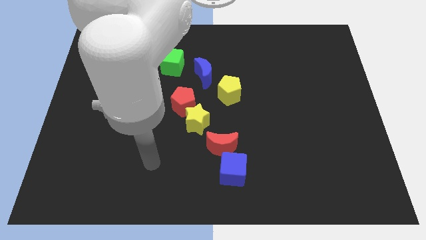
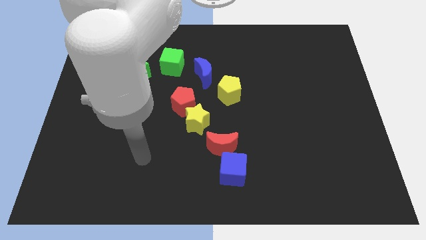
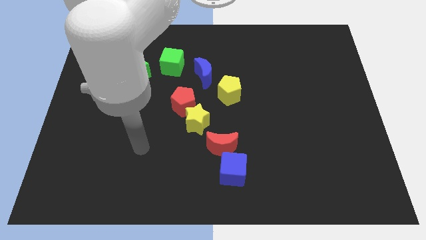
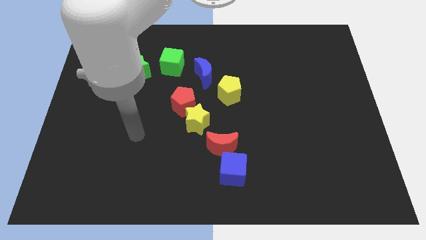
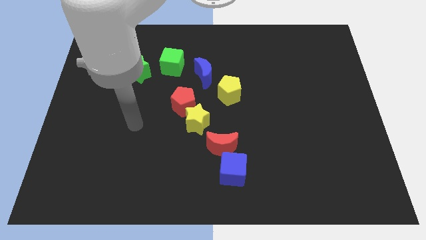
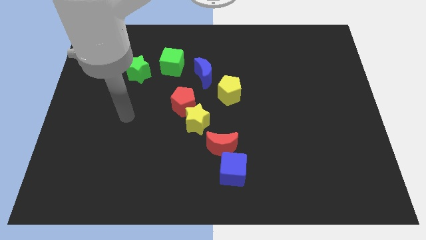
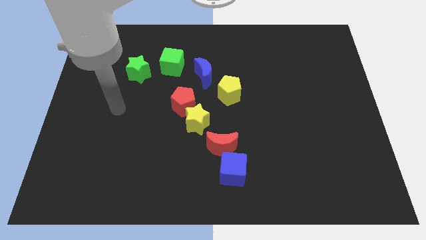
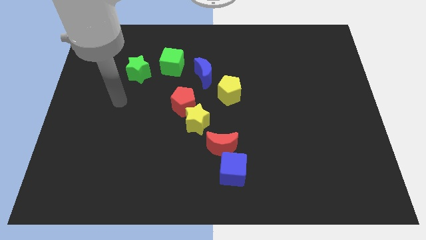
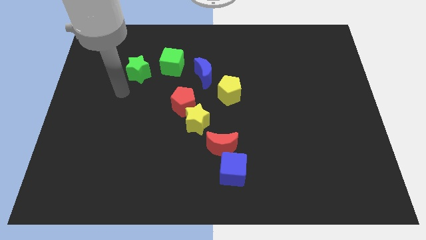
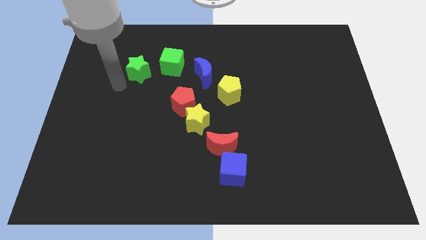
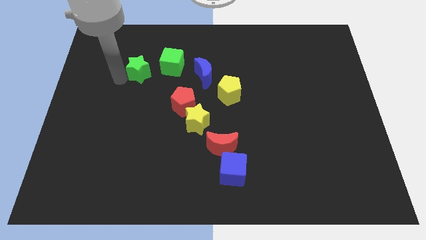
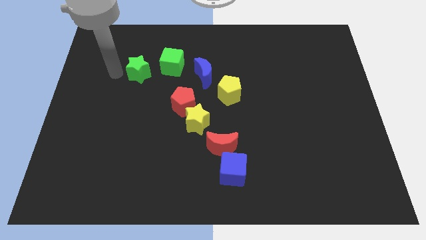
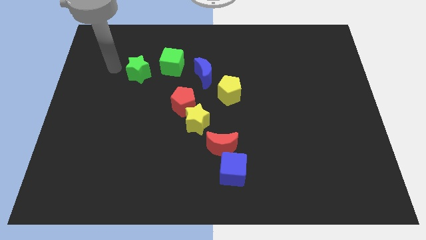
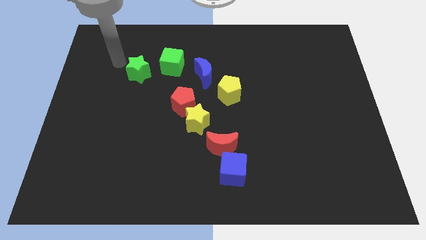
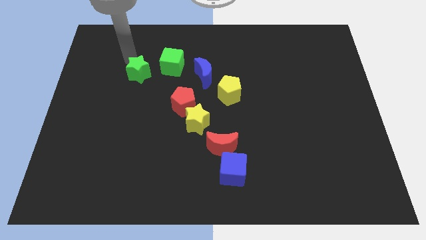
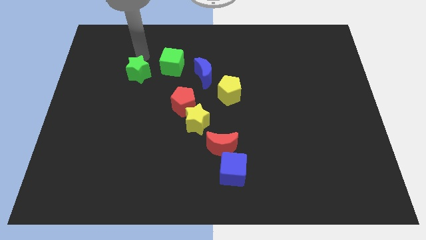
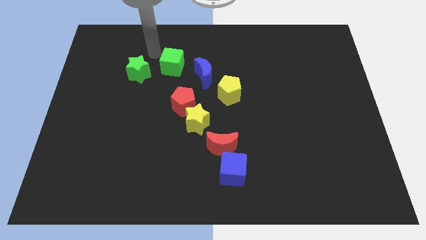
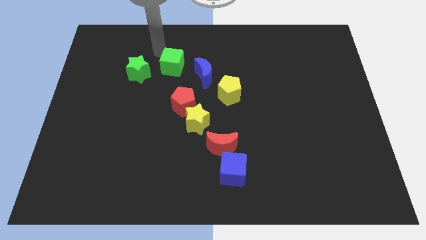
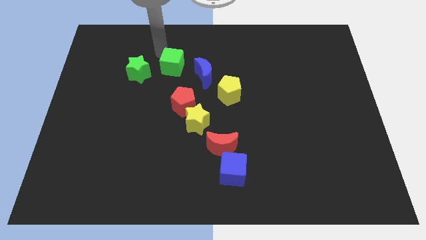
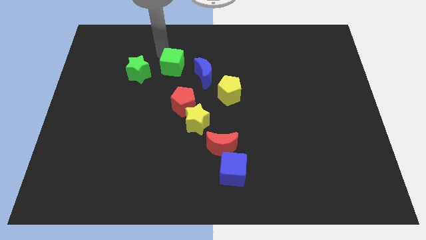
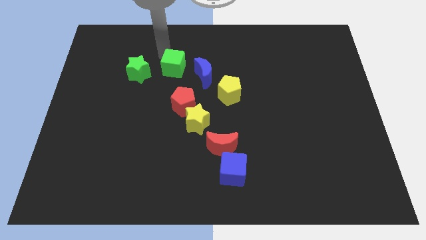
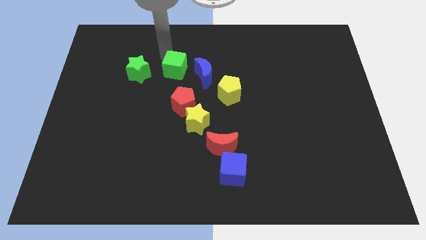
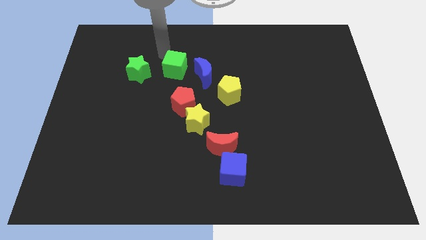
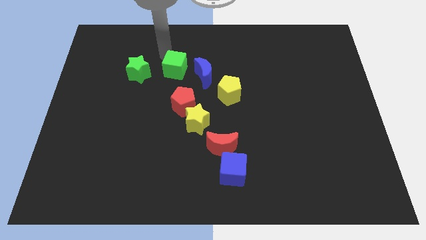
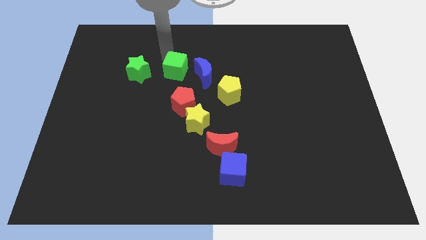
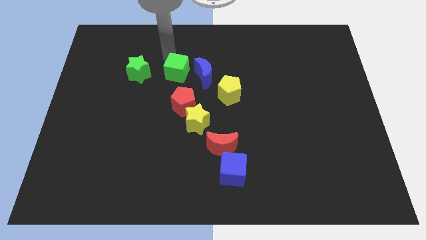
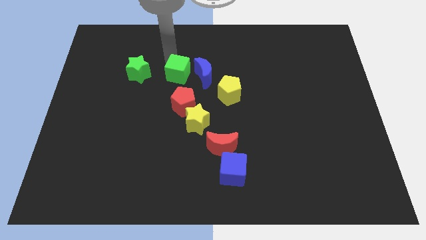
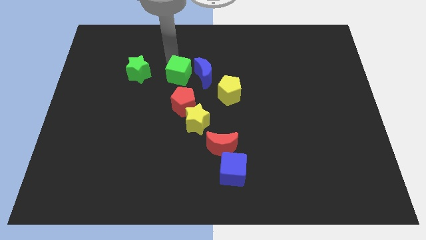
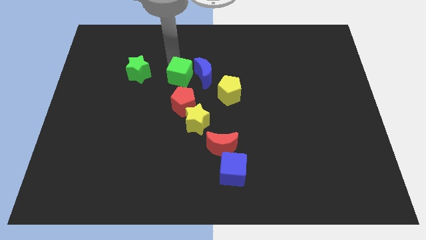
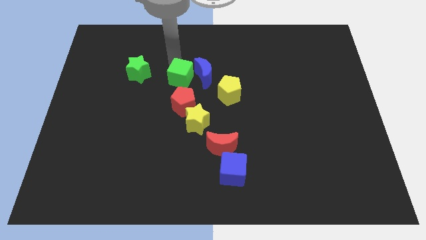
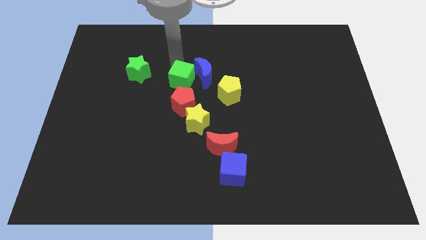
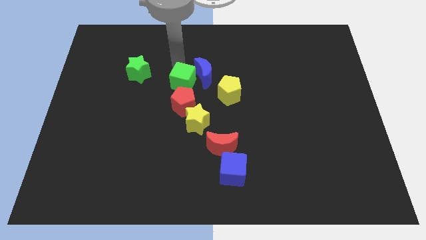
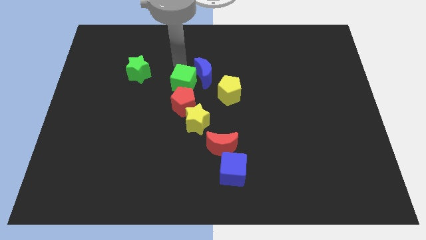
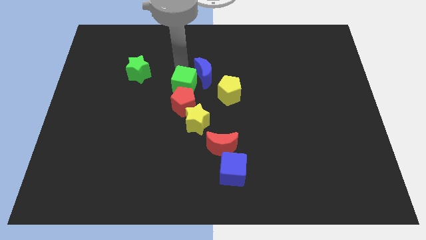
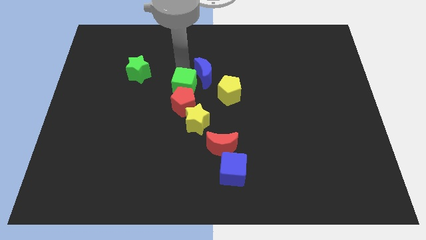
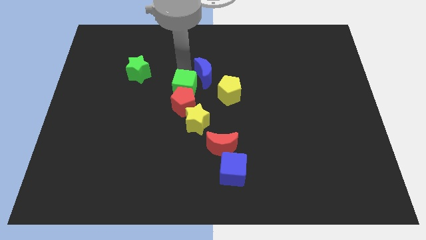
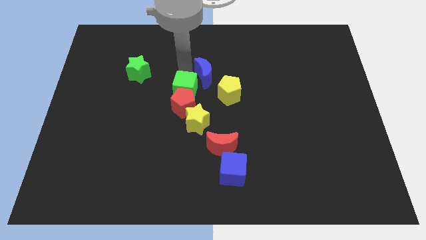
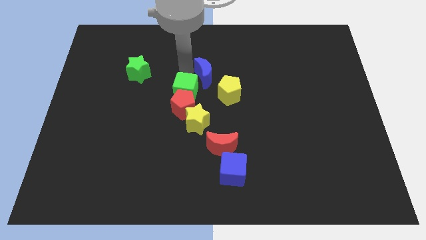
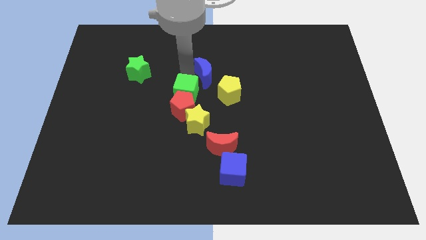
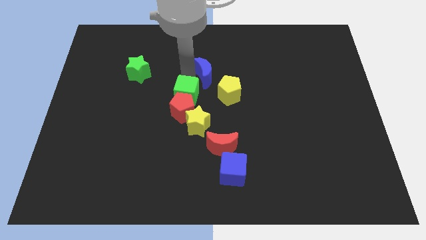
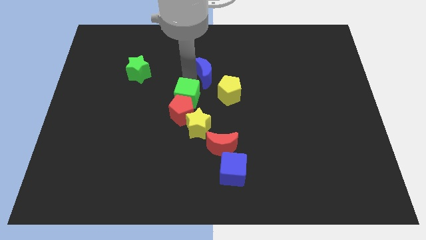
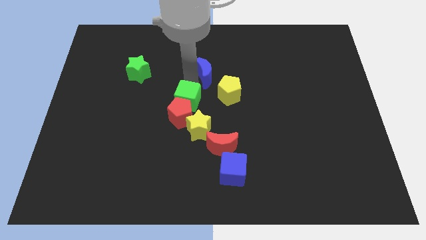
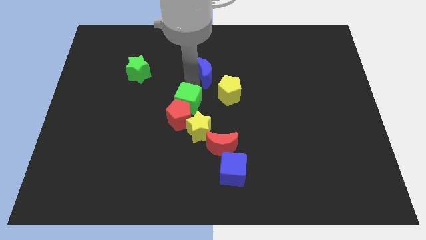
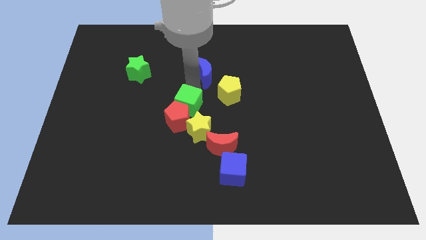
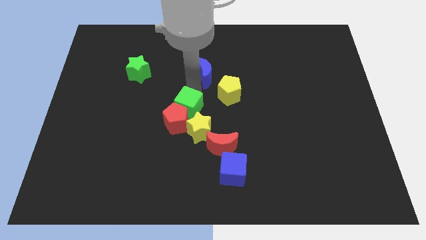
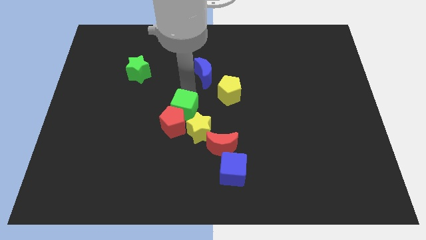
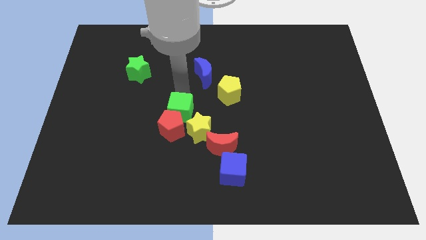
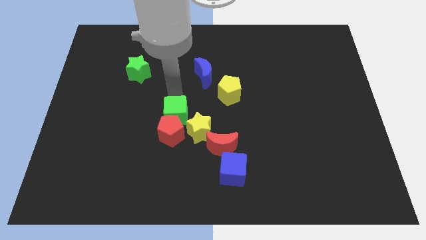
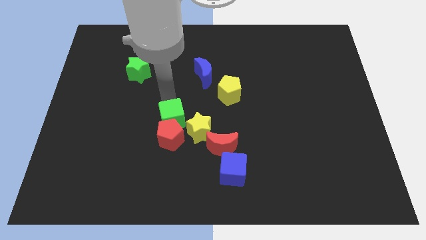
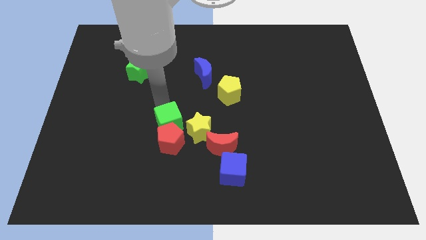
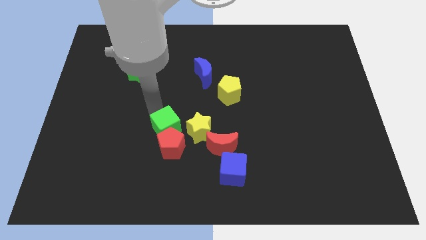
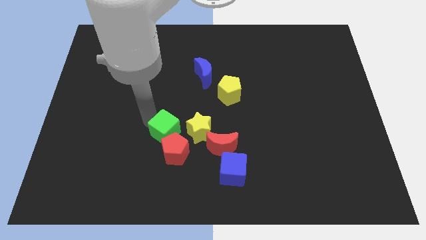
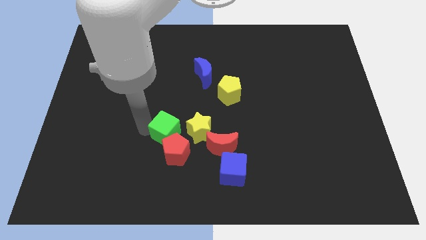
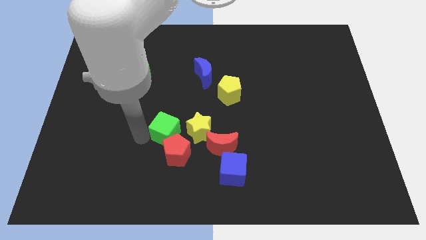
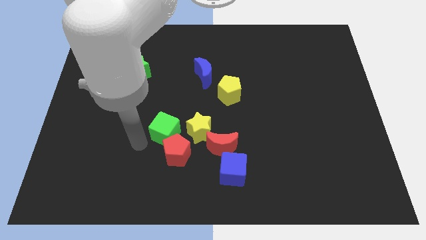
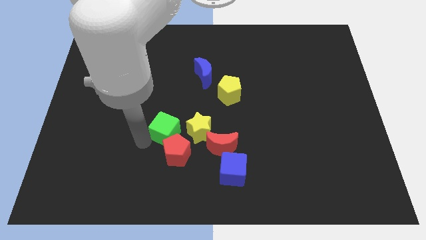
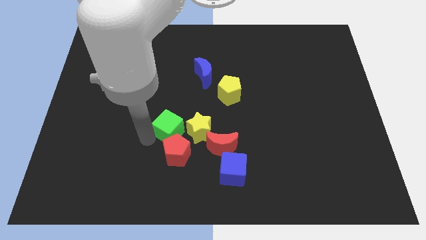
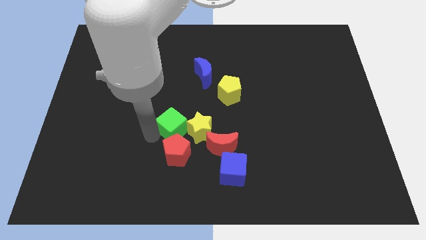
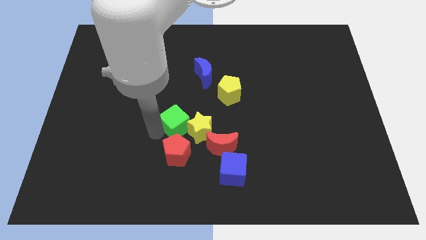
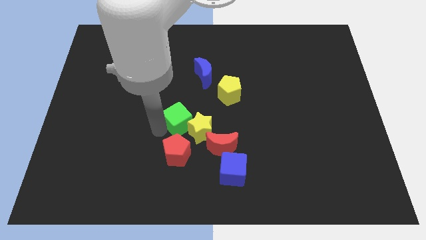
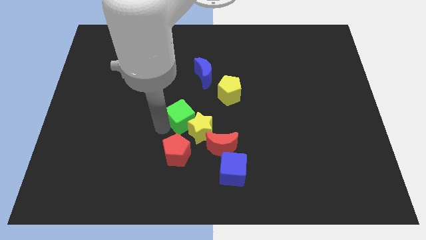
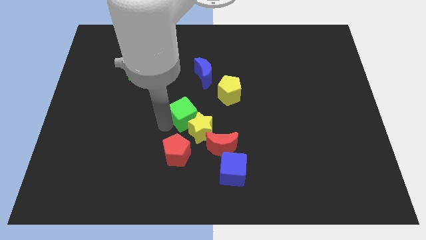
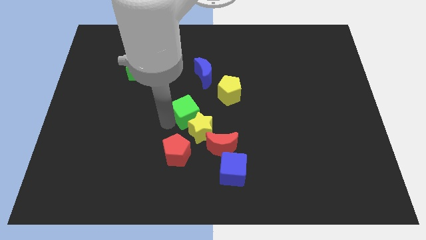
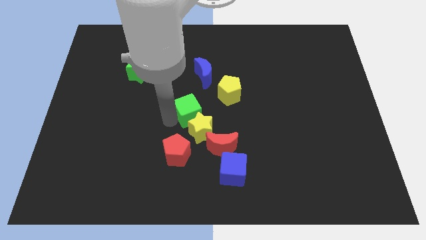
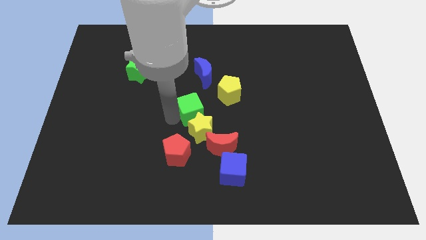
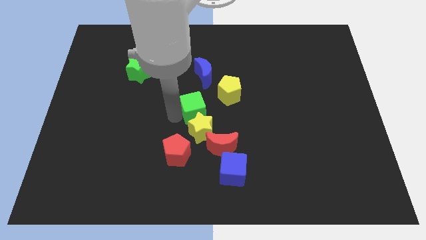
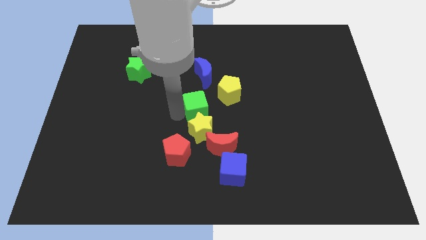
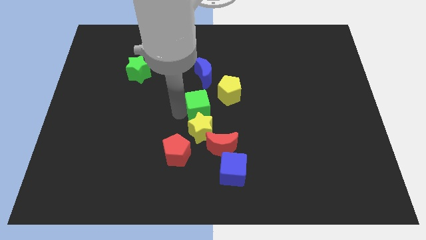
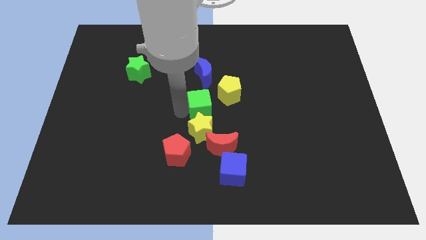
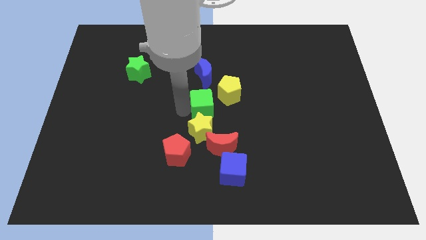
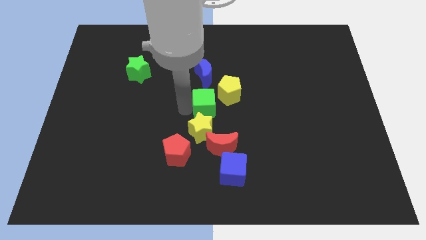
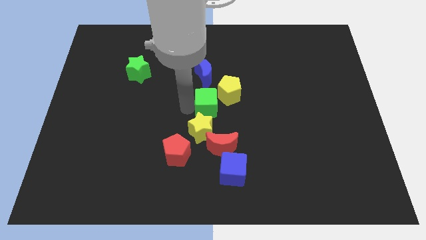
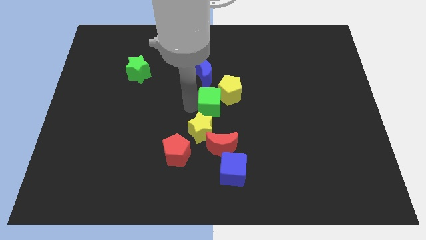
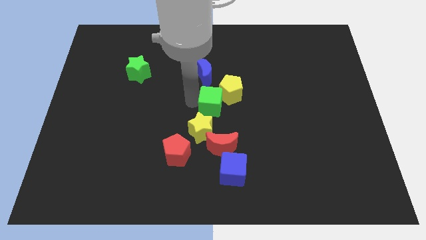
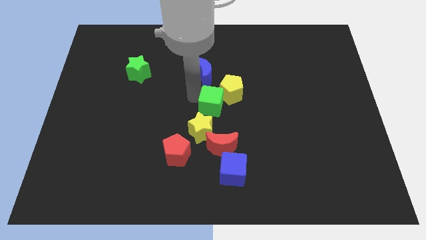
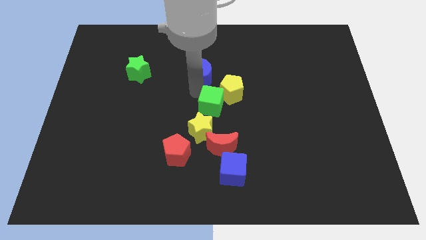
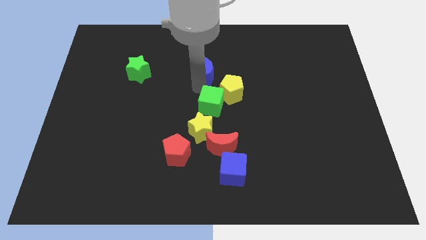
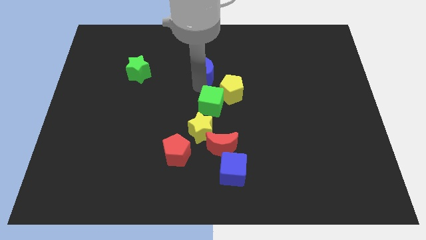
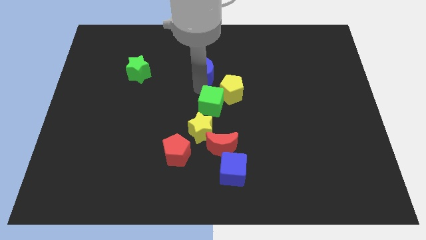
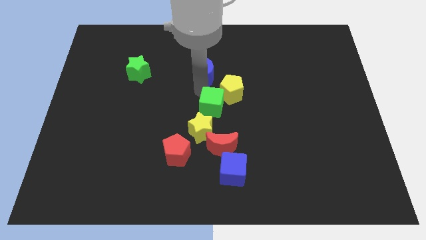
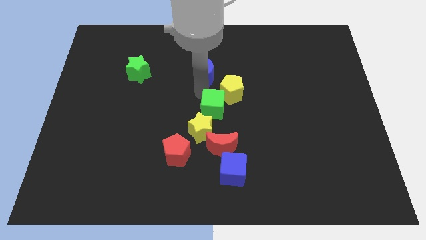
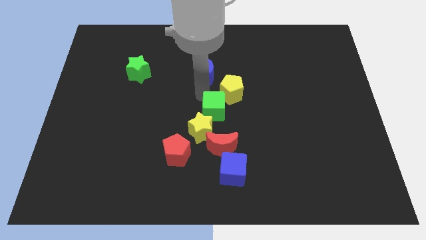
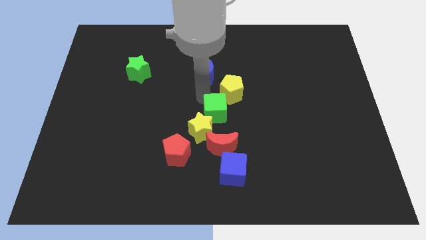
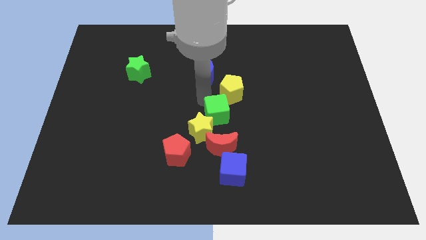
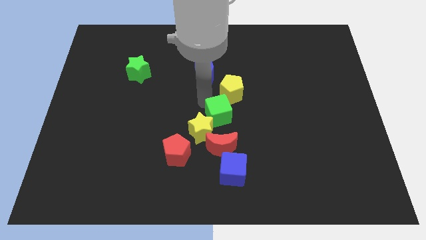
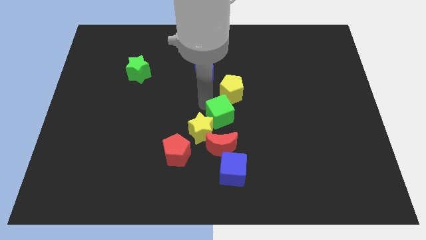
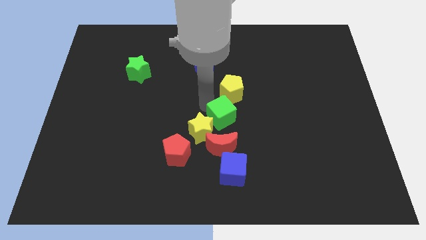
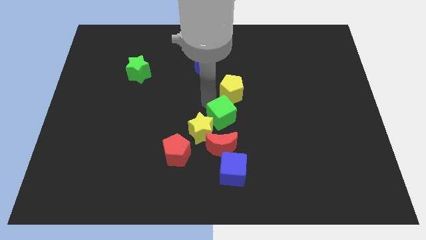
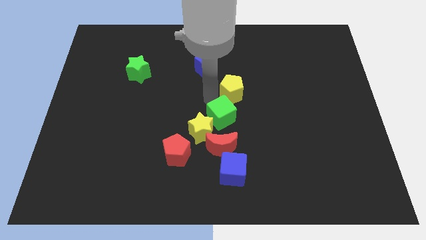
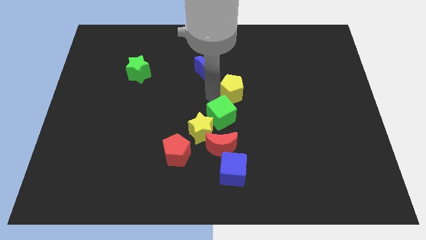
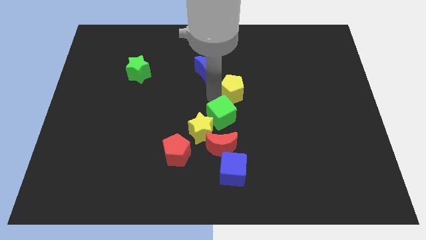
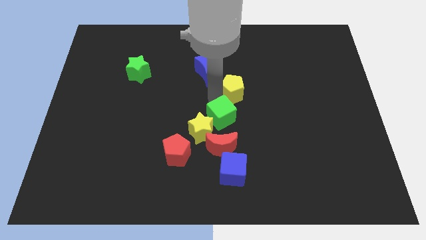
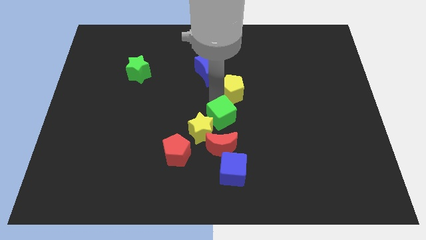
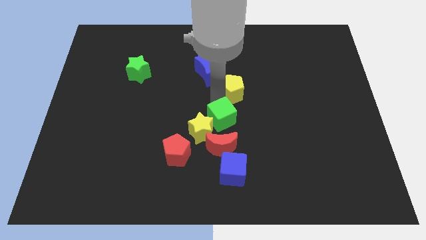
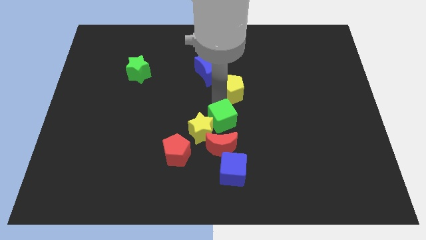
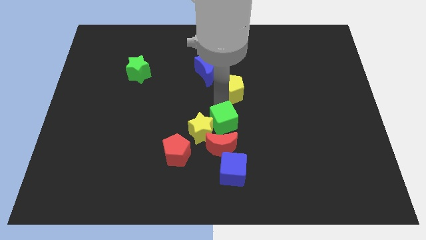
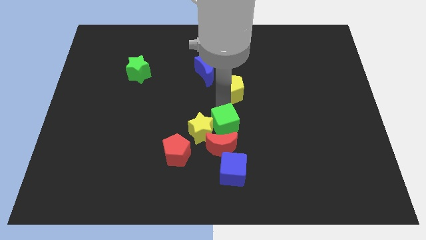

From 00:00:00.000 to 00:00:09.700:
move the green cube to the red moon
